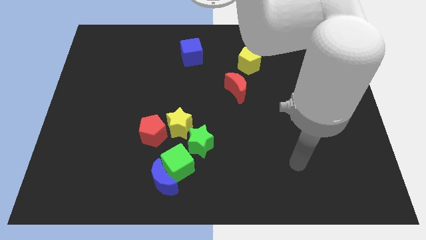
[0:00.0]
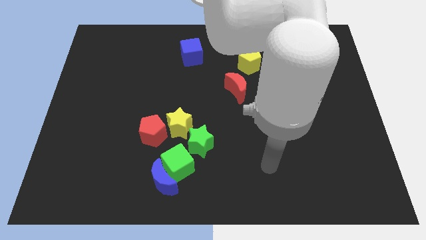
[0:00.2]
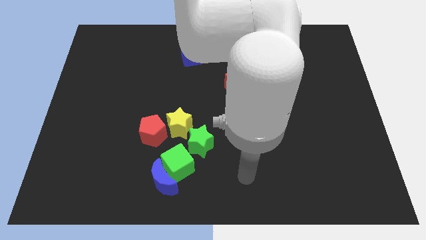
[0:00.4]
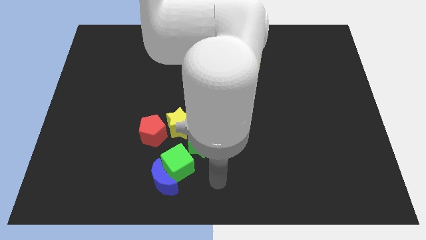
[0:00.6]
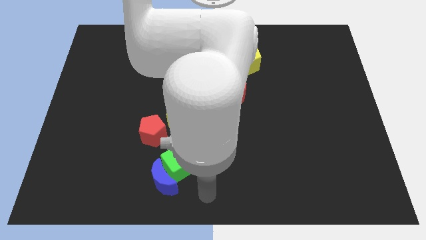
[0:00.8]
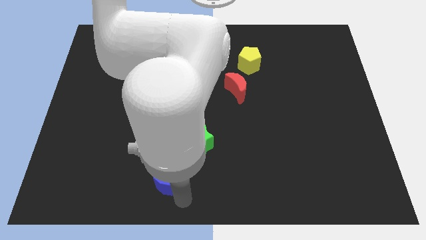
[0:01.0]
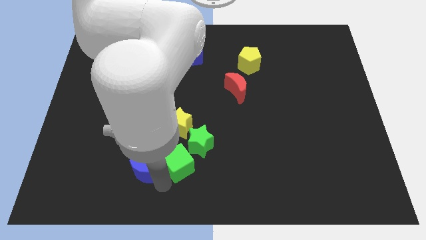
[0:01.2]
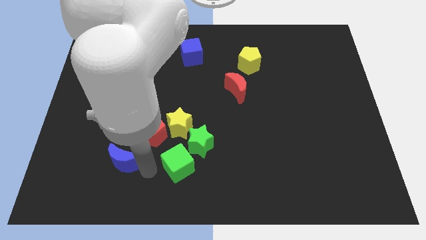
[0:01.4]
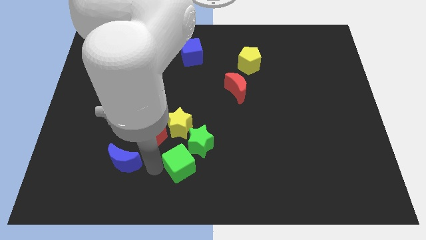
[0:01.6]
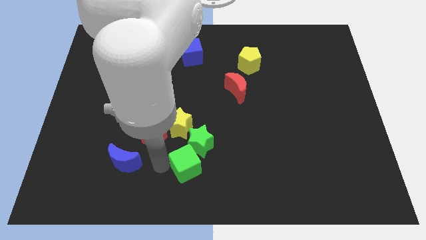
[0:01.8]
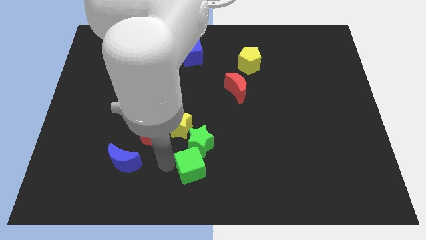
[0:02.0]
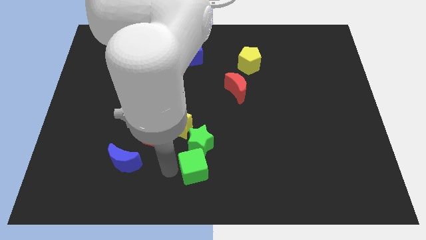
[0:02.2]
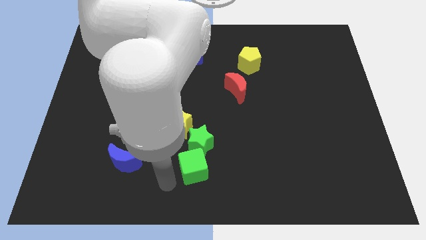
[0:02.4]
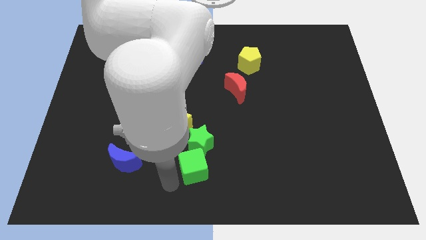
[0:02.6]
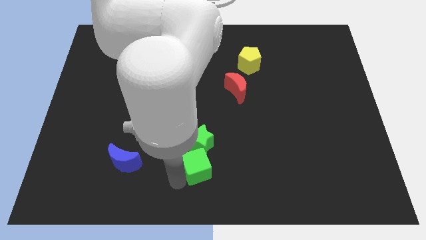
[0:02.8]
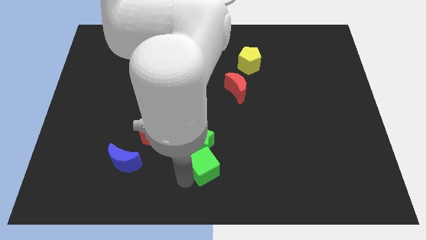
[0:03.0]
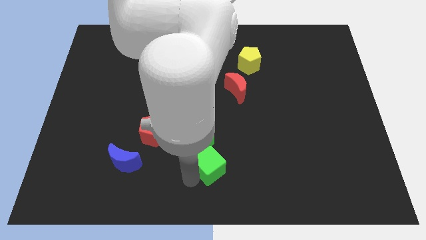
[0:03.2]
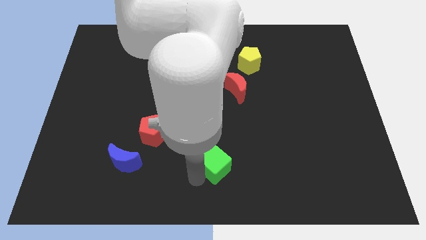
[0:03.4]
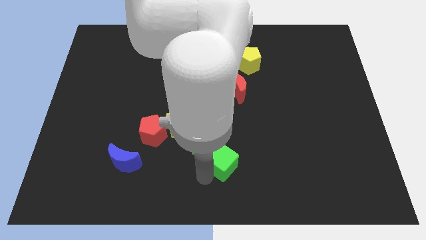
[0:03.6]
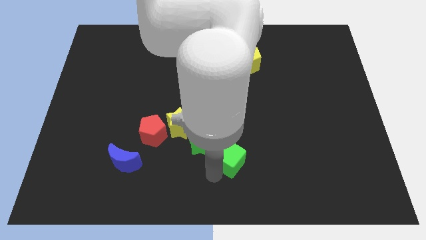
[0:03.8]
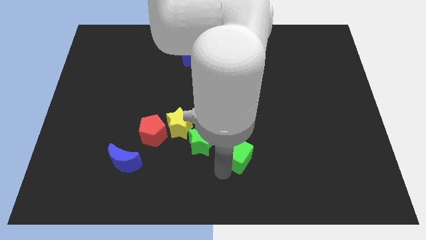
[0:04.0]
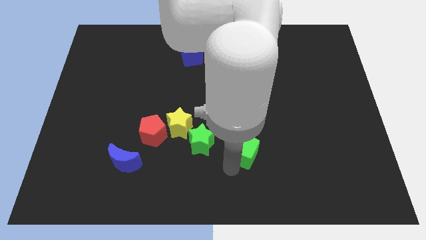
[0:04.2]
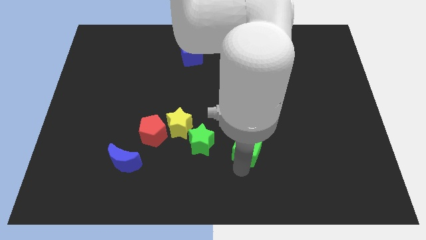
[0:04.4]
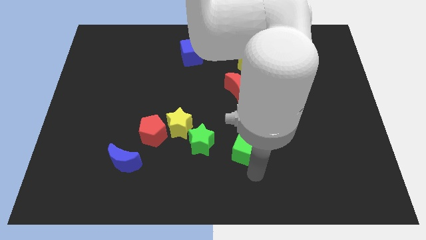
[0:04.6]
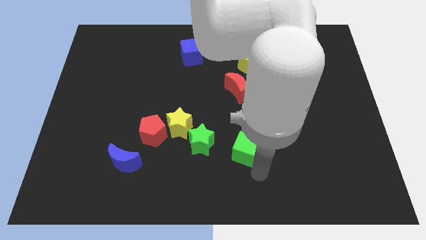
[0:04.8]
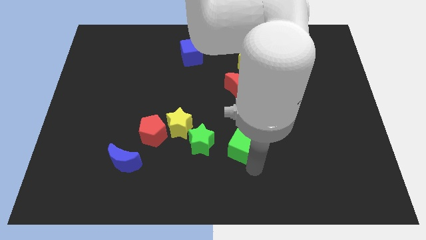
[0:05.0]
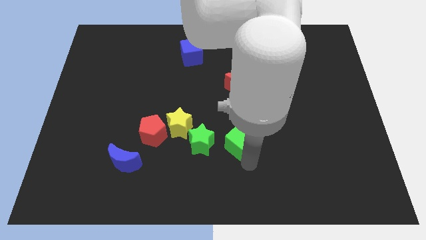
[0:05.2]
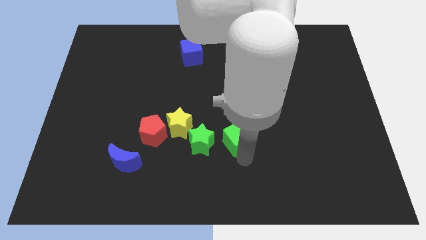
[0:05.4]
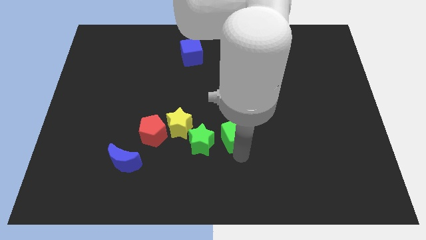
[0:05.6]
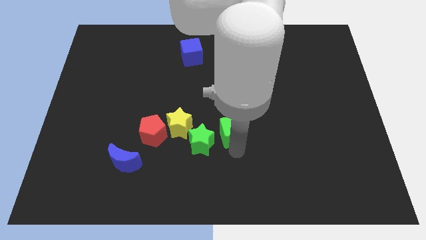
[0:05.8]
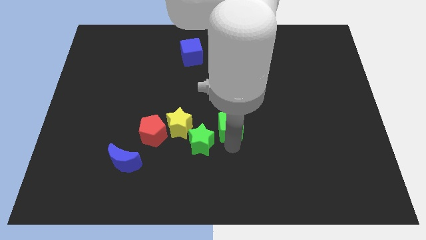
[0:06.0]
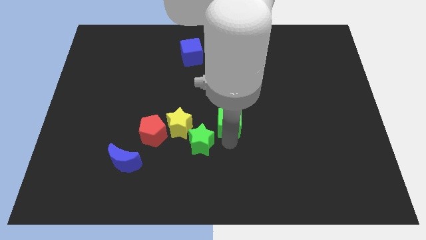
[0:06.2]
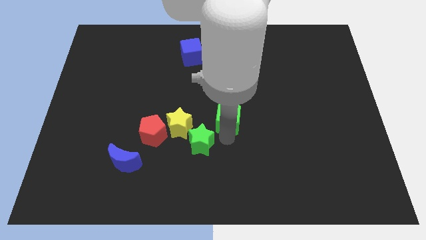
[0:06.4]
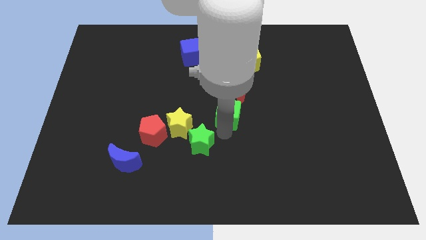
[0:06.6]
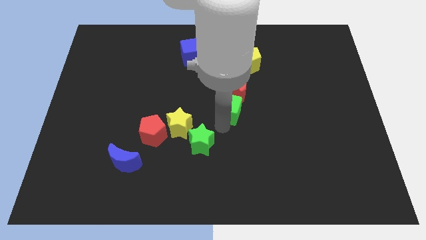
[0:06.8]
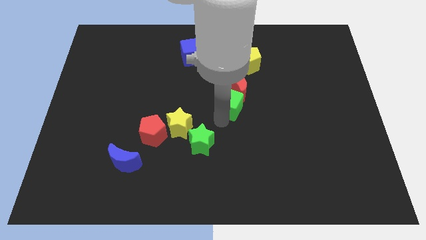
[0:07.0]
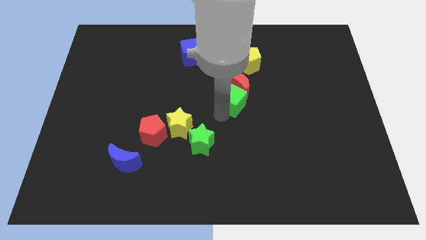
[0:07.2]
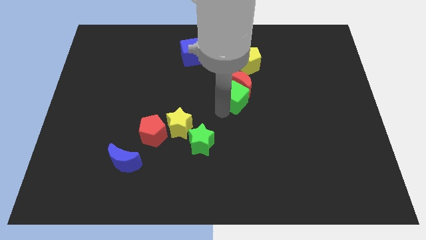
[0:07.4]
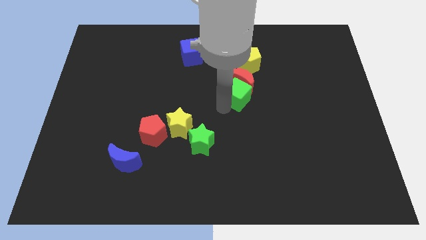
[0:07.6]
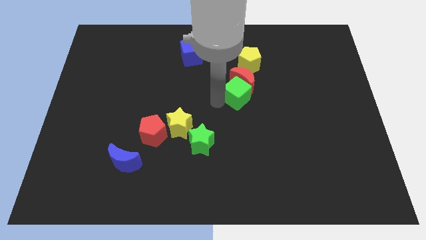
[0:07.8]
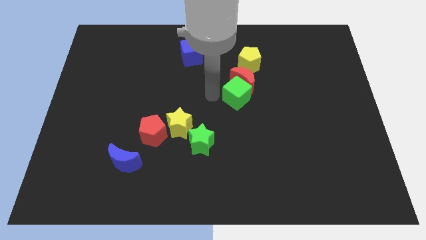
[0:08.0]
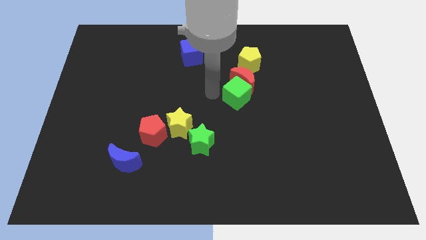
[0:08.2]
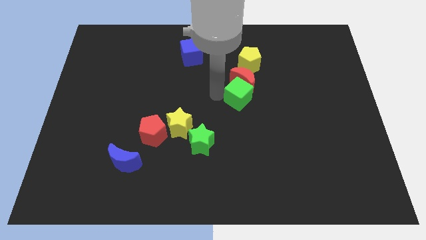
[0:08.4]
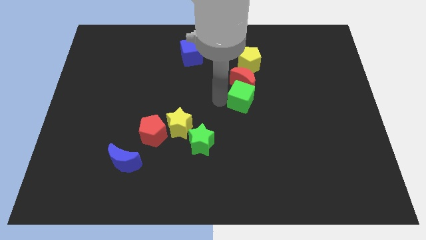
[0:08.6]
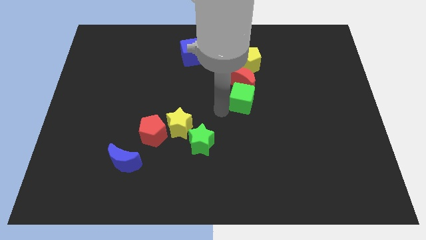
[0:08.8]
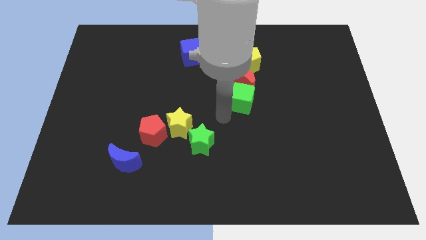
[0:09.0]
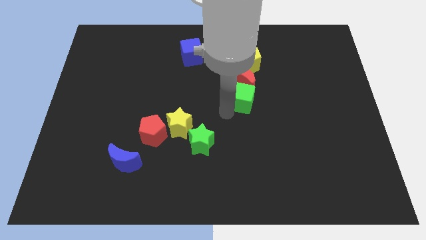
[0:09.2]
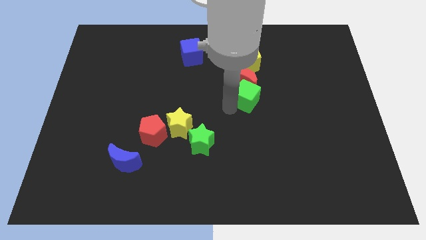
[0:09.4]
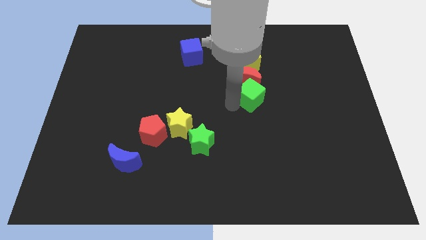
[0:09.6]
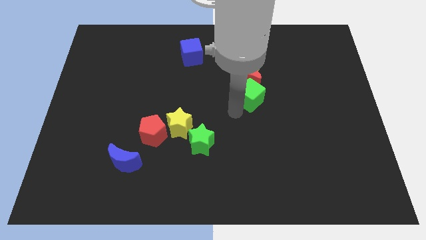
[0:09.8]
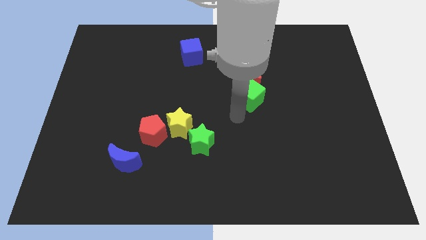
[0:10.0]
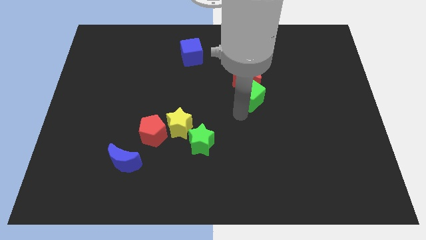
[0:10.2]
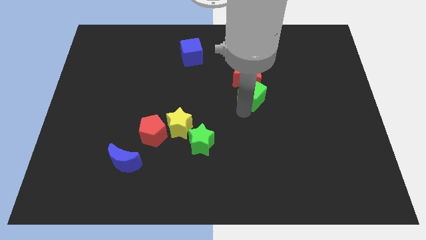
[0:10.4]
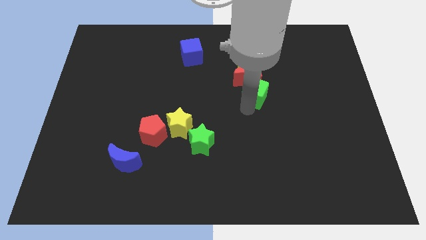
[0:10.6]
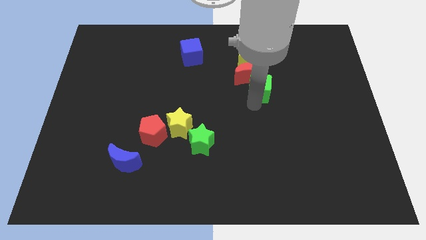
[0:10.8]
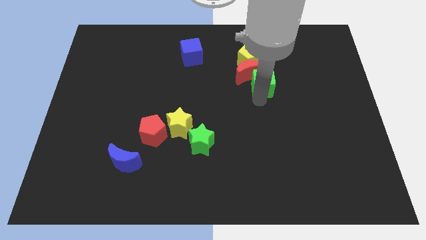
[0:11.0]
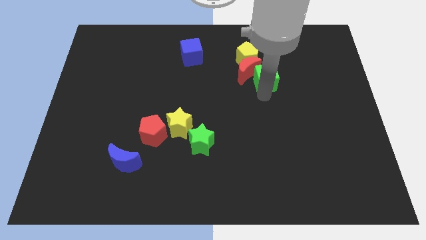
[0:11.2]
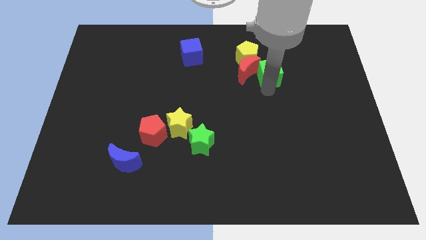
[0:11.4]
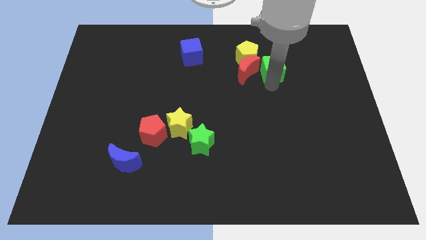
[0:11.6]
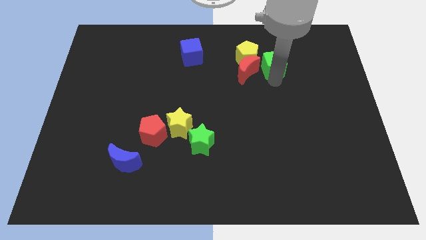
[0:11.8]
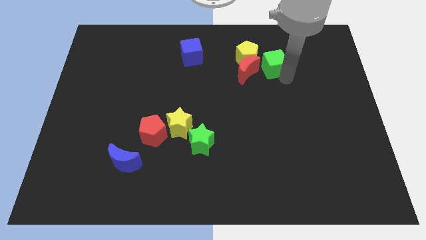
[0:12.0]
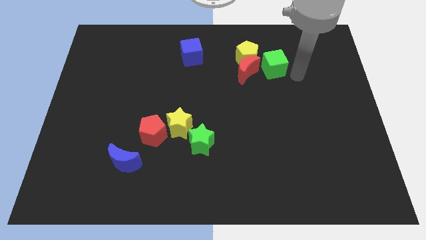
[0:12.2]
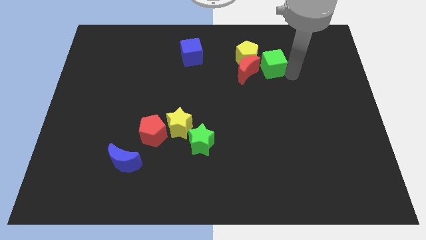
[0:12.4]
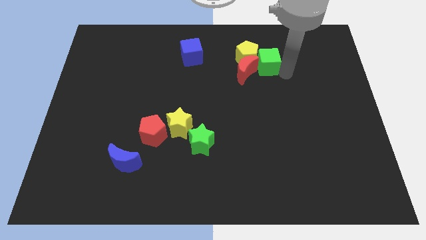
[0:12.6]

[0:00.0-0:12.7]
move the green cube towards the yellow pentagon

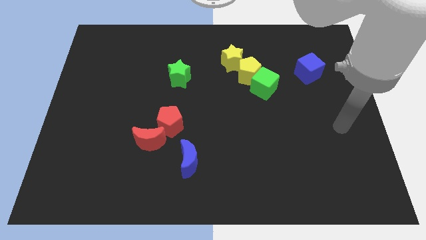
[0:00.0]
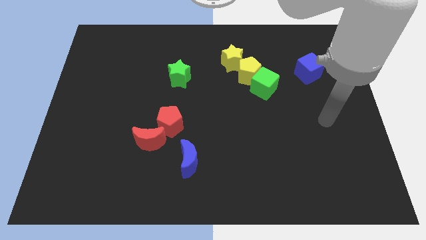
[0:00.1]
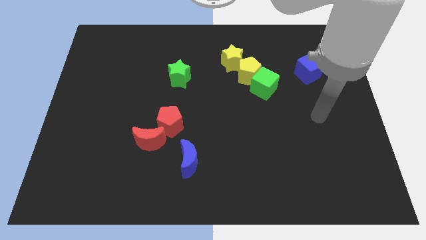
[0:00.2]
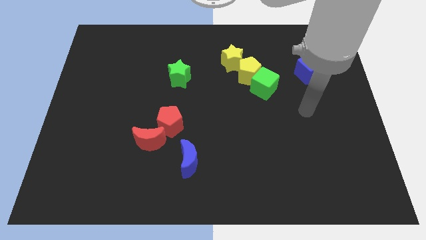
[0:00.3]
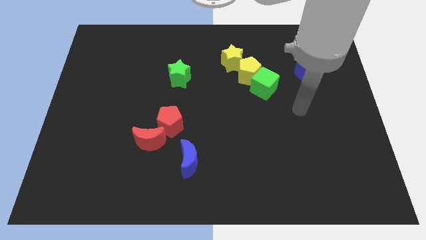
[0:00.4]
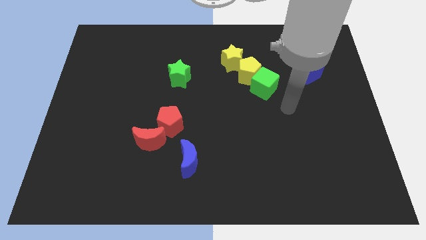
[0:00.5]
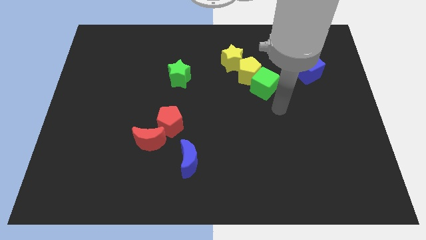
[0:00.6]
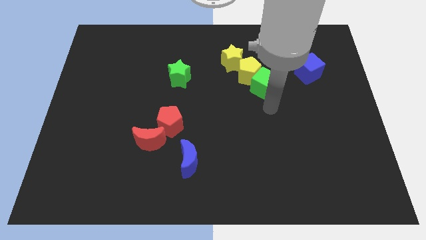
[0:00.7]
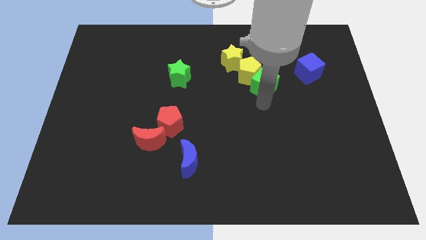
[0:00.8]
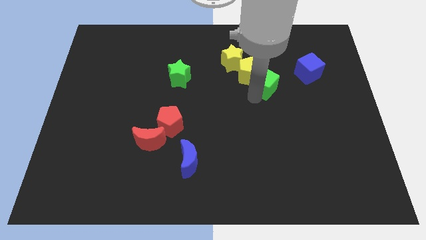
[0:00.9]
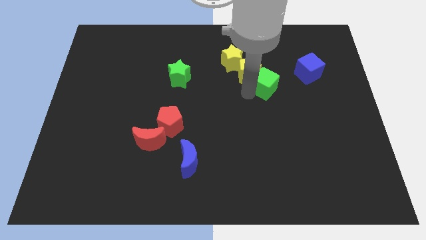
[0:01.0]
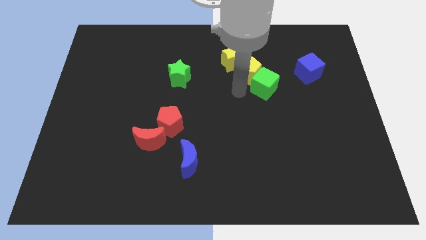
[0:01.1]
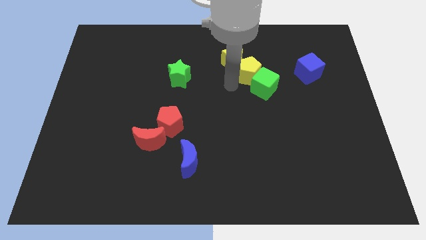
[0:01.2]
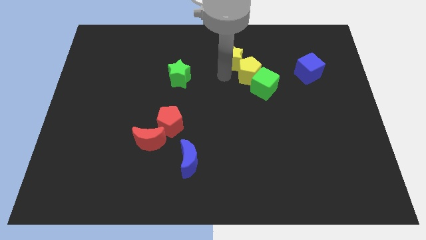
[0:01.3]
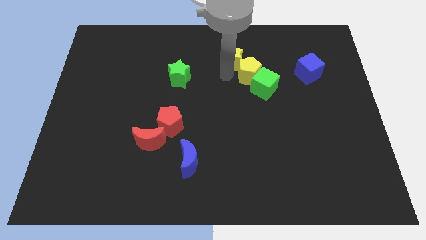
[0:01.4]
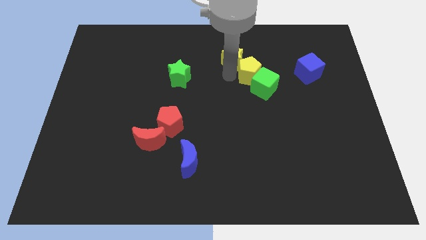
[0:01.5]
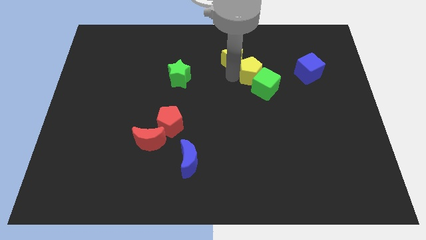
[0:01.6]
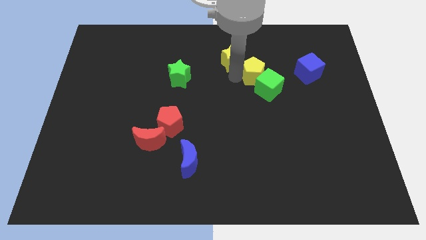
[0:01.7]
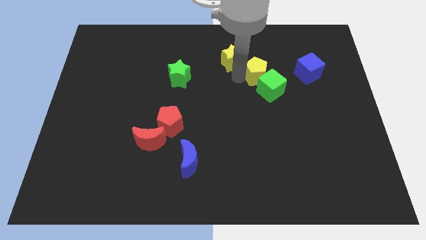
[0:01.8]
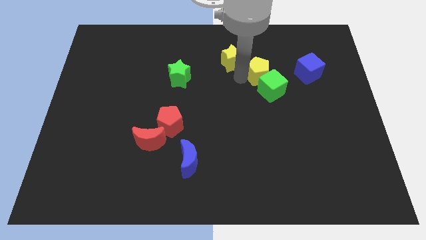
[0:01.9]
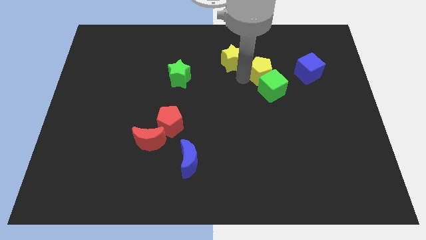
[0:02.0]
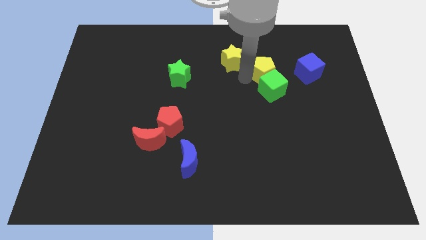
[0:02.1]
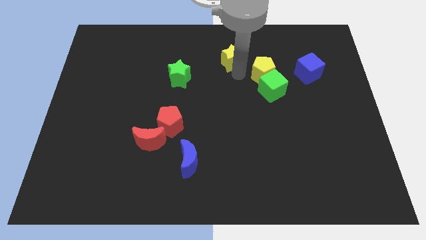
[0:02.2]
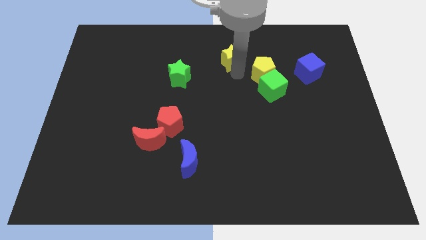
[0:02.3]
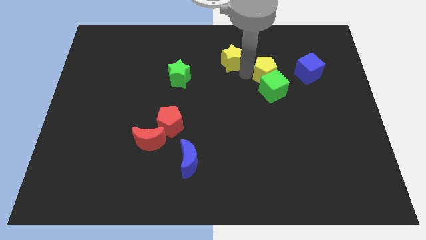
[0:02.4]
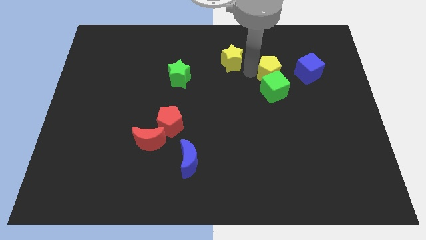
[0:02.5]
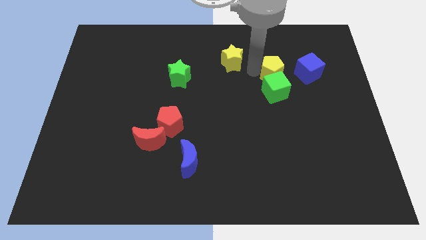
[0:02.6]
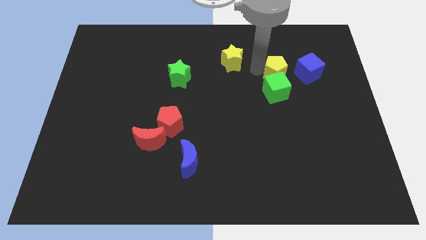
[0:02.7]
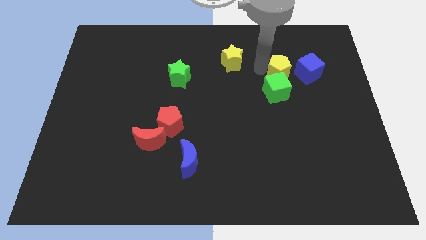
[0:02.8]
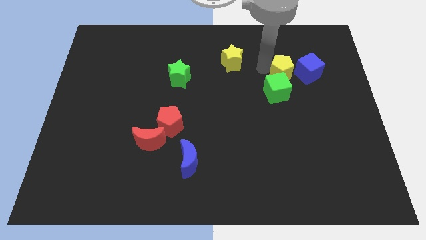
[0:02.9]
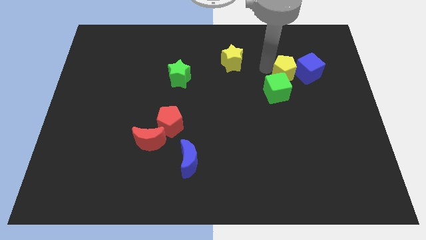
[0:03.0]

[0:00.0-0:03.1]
put the yellow pentagon close to the blue cube
